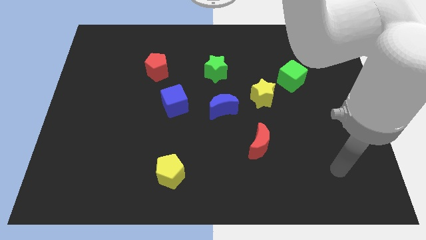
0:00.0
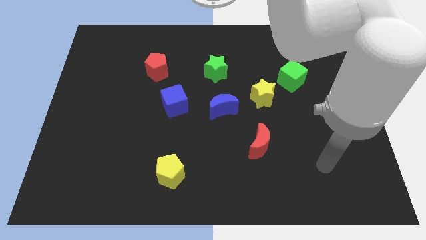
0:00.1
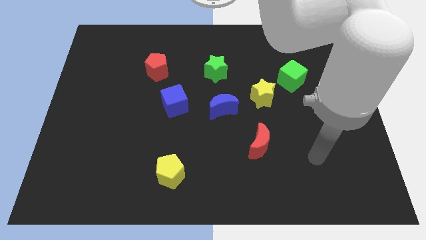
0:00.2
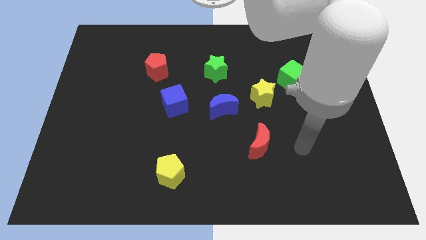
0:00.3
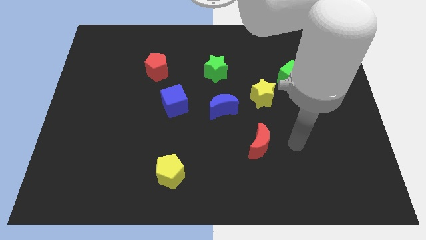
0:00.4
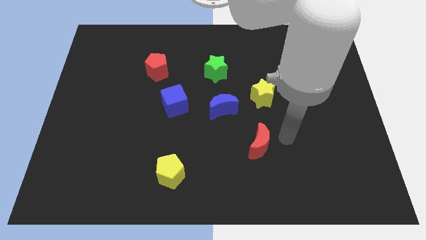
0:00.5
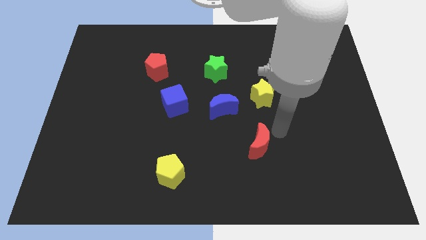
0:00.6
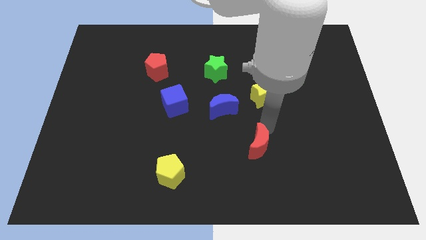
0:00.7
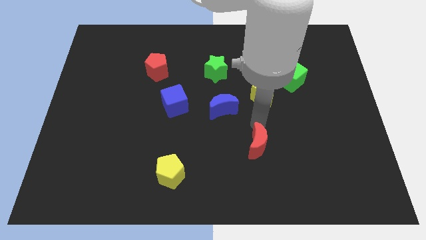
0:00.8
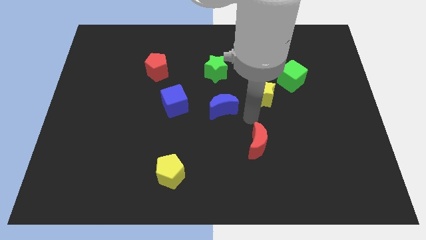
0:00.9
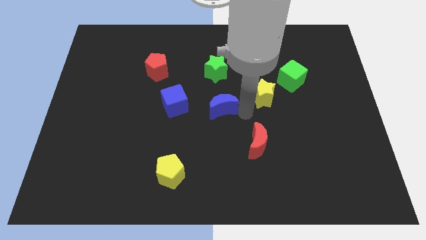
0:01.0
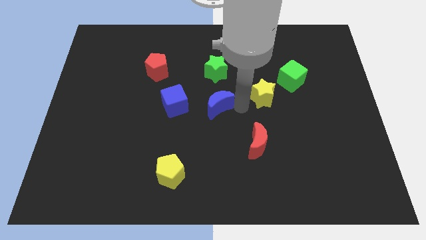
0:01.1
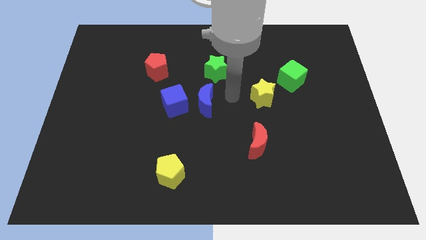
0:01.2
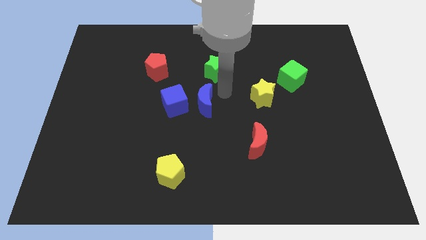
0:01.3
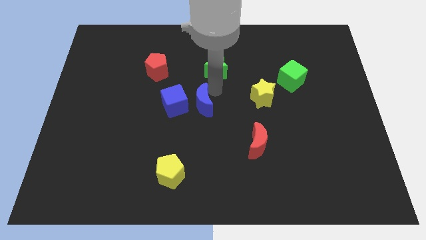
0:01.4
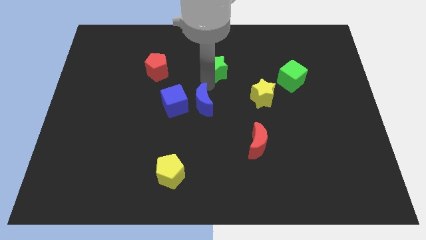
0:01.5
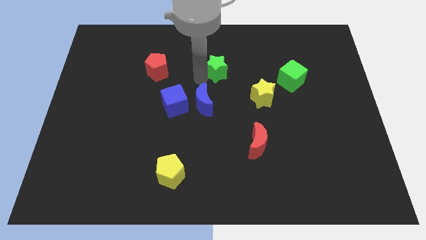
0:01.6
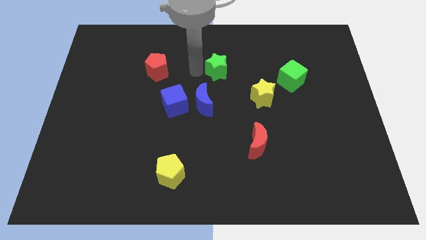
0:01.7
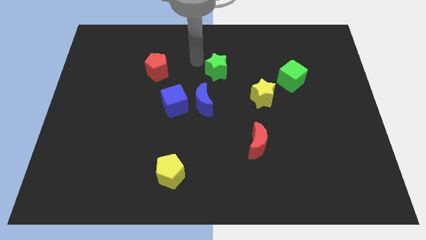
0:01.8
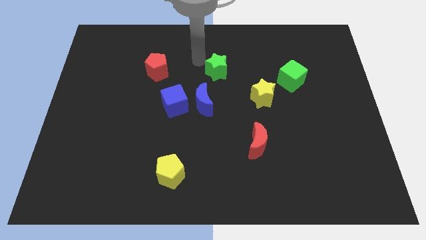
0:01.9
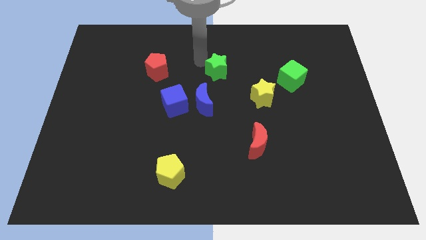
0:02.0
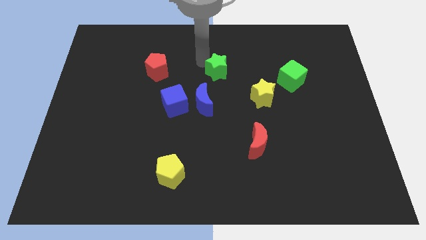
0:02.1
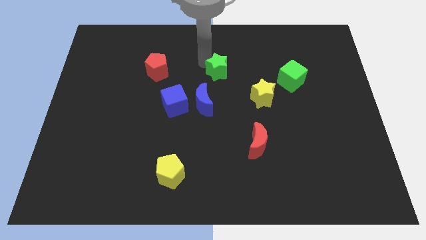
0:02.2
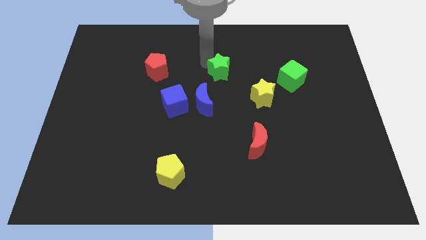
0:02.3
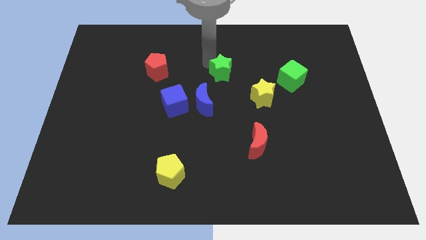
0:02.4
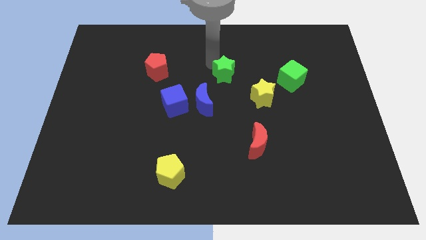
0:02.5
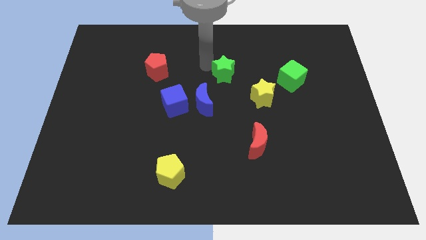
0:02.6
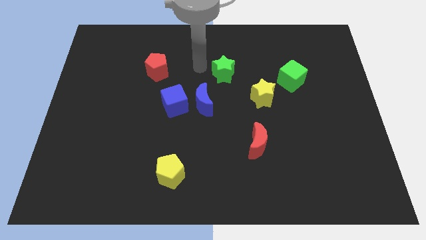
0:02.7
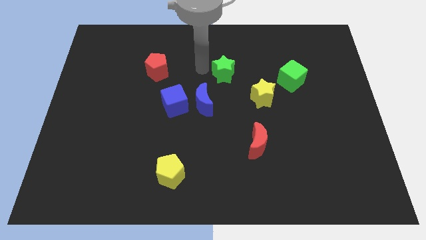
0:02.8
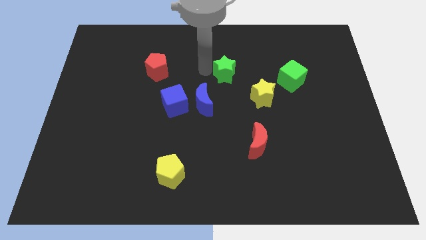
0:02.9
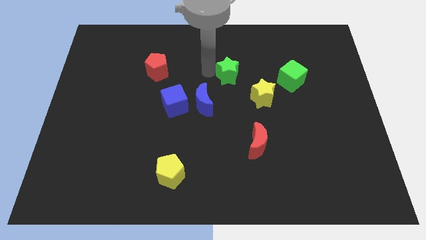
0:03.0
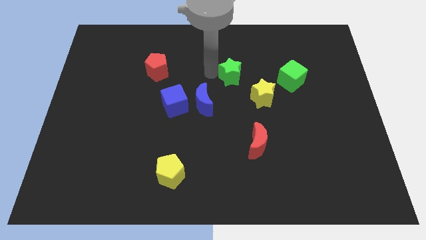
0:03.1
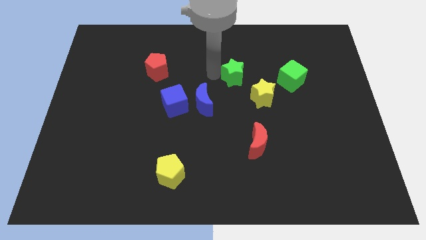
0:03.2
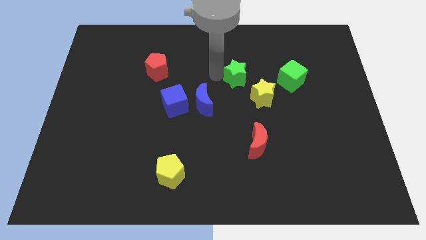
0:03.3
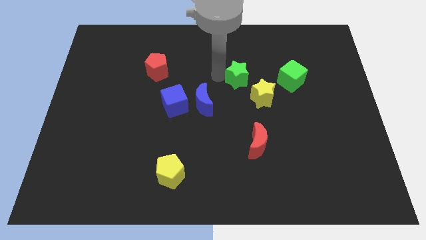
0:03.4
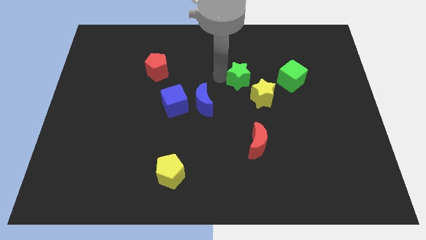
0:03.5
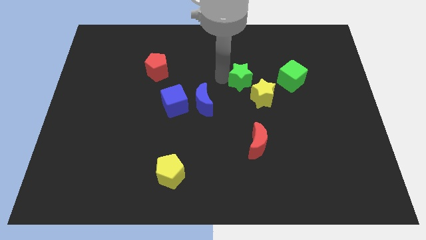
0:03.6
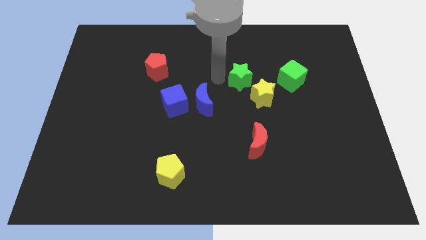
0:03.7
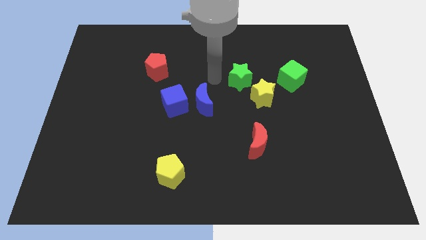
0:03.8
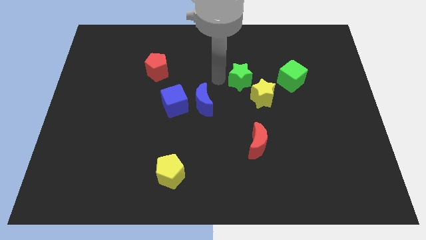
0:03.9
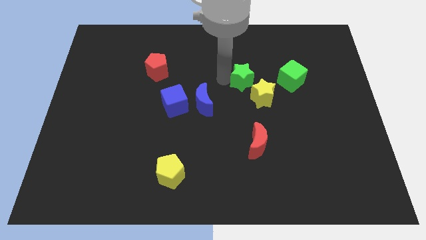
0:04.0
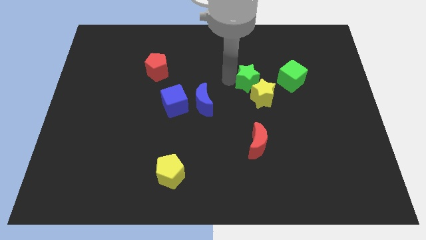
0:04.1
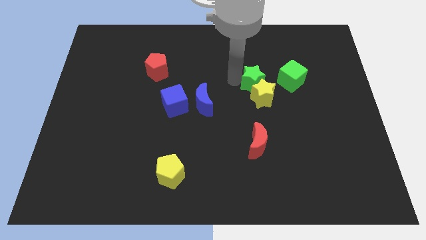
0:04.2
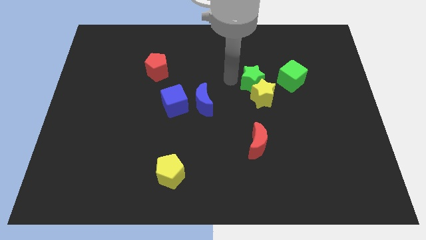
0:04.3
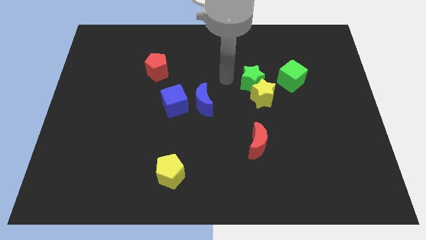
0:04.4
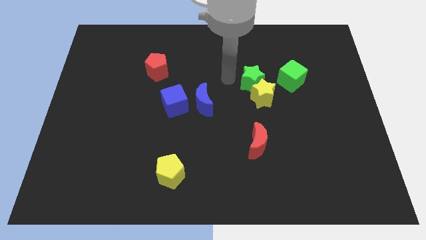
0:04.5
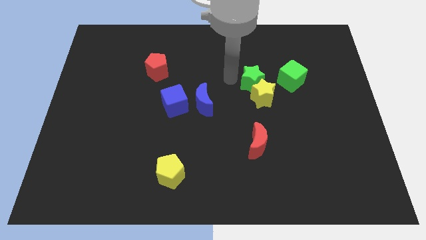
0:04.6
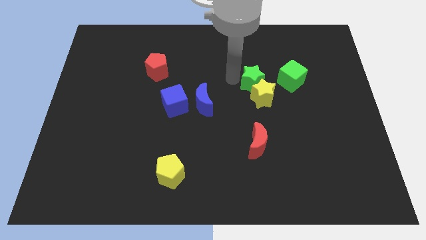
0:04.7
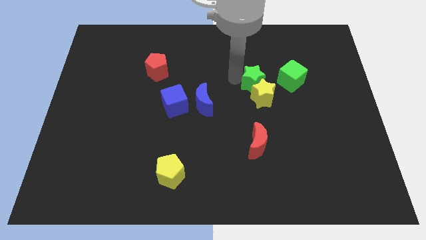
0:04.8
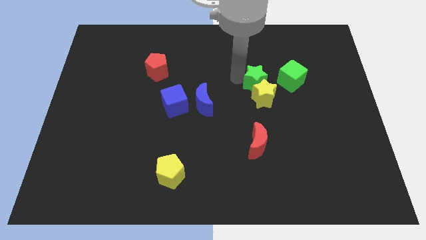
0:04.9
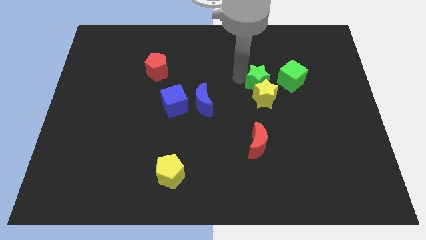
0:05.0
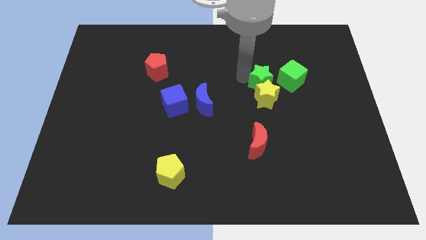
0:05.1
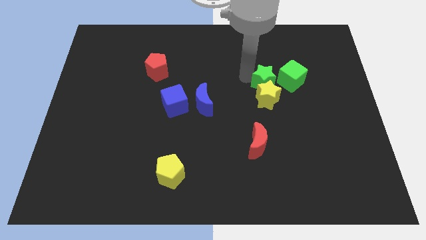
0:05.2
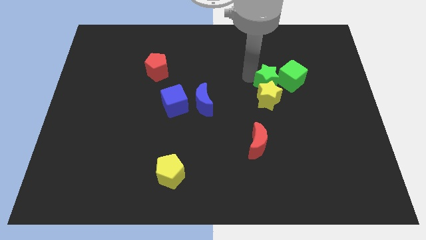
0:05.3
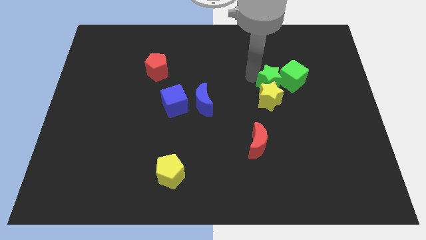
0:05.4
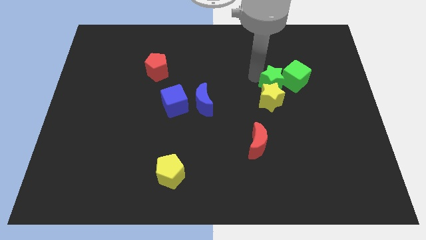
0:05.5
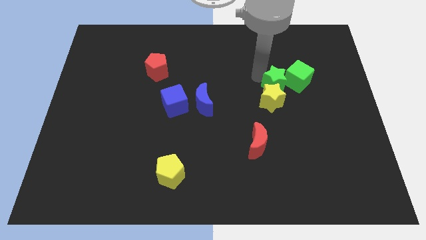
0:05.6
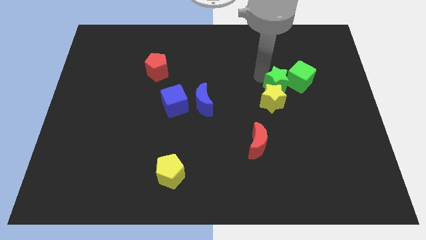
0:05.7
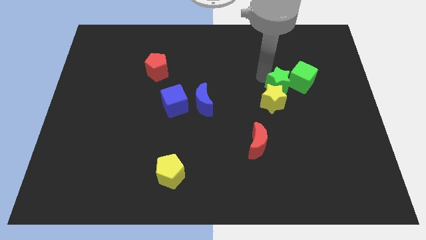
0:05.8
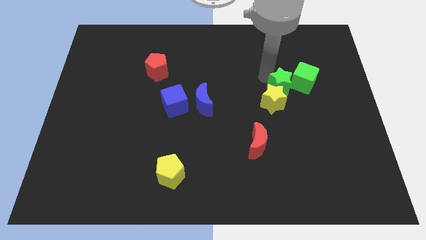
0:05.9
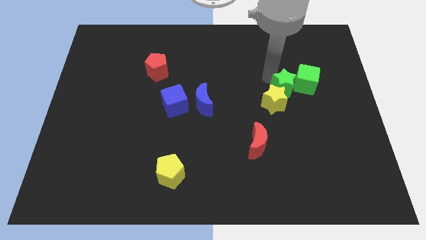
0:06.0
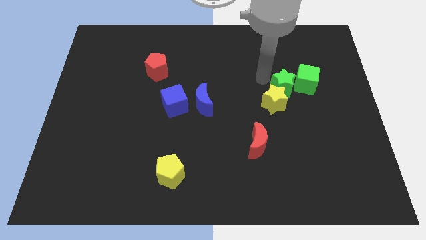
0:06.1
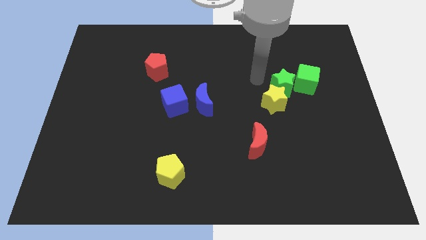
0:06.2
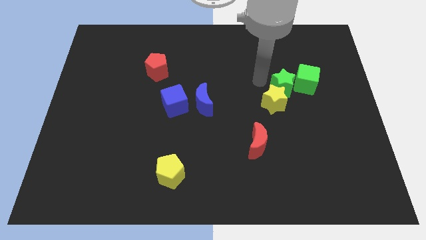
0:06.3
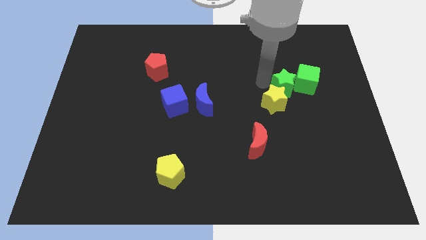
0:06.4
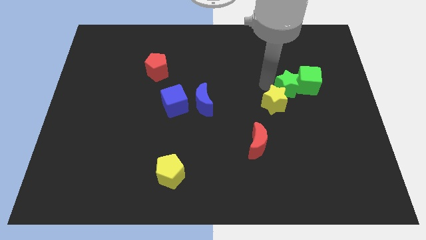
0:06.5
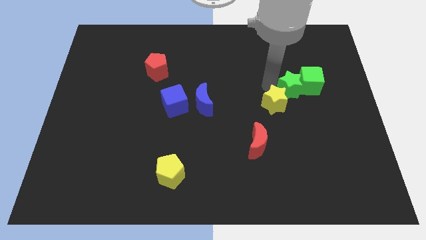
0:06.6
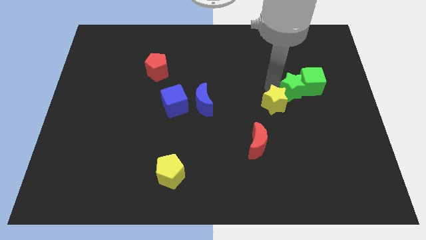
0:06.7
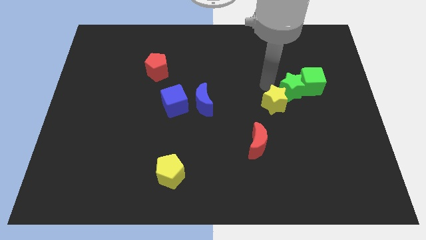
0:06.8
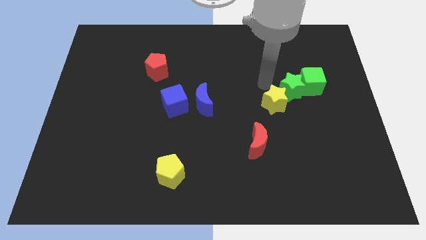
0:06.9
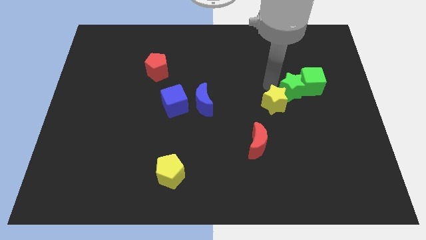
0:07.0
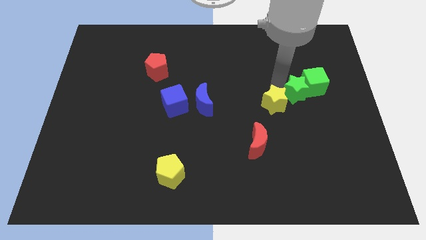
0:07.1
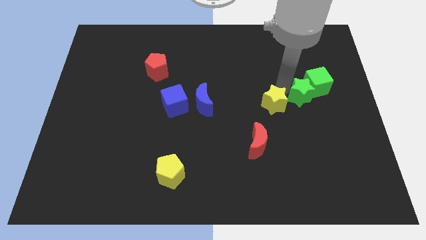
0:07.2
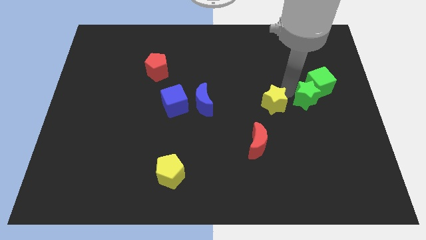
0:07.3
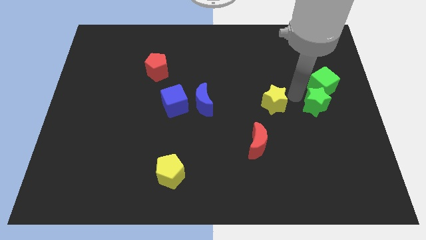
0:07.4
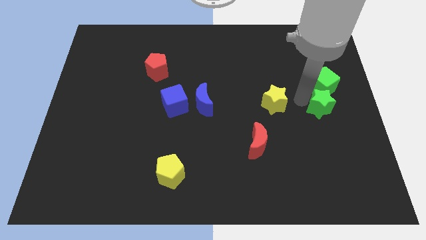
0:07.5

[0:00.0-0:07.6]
push the green star to the right side of the board
